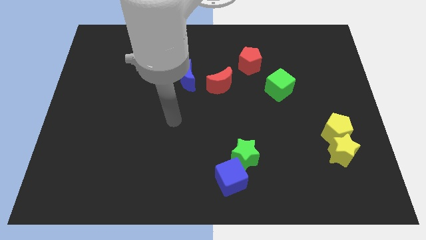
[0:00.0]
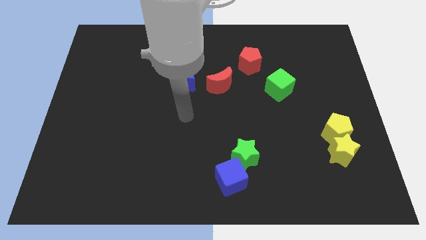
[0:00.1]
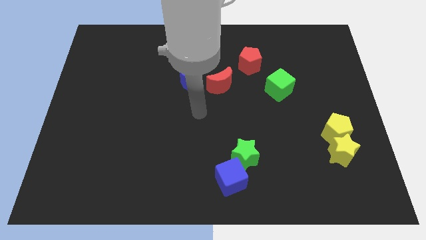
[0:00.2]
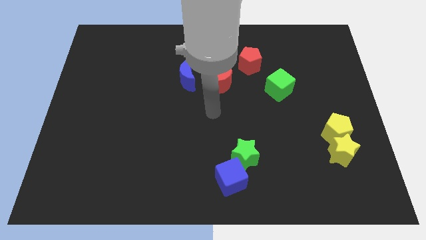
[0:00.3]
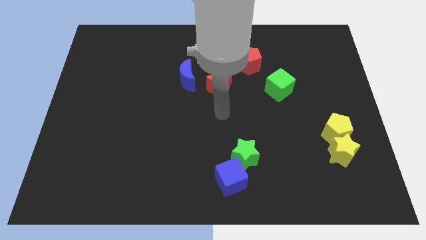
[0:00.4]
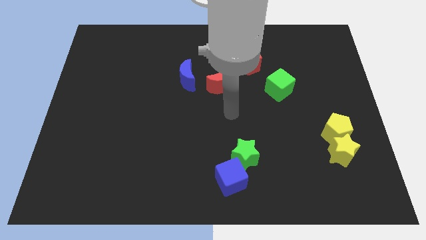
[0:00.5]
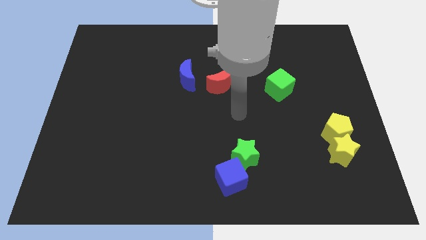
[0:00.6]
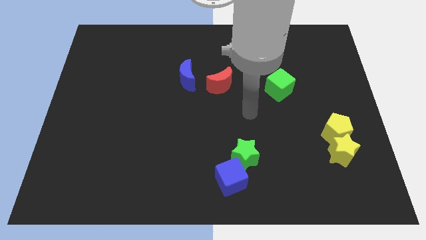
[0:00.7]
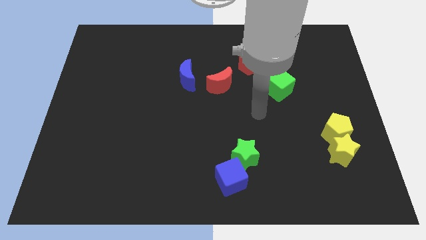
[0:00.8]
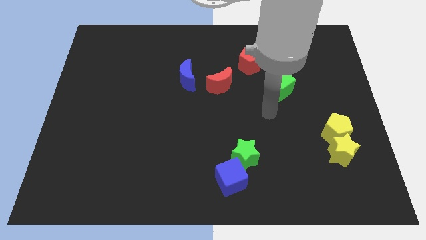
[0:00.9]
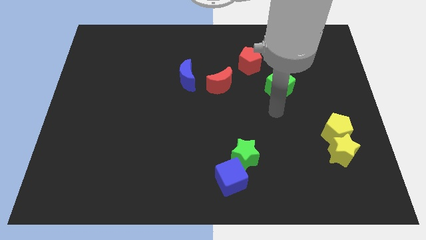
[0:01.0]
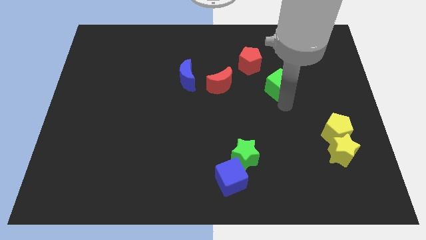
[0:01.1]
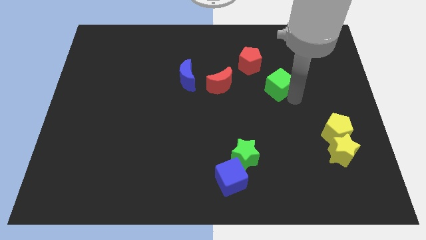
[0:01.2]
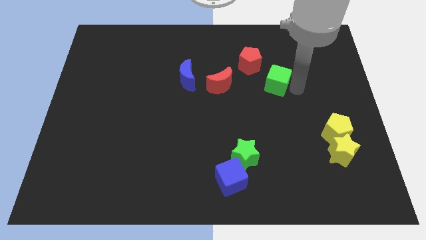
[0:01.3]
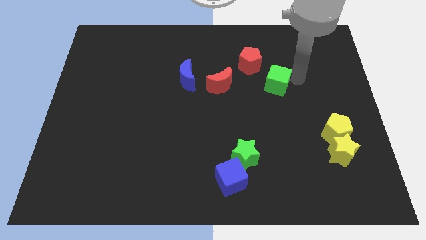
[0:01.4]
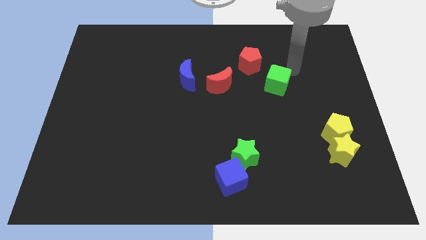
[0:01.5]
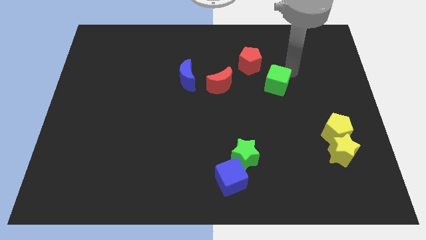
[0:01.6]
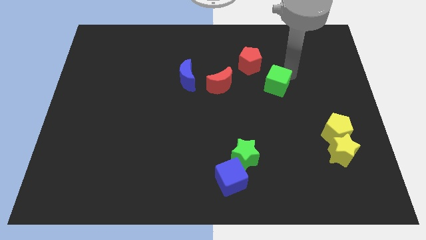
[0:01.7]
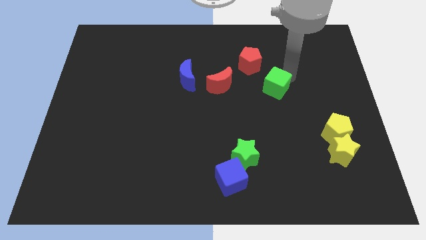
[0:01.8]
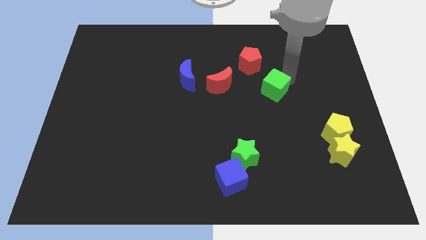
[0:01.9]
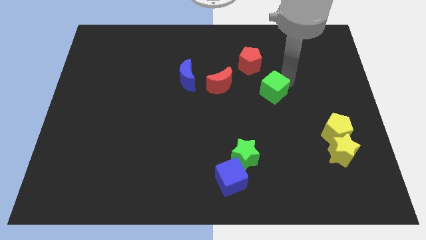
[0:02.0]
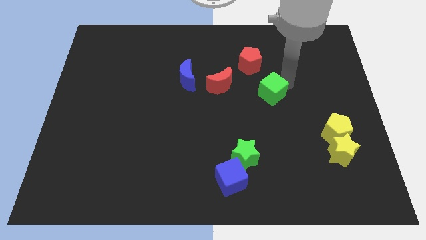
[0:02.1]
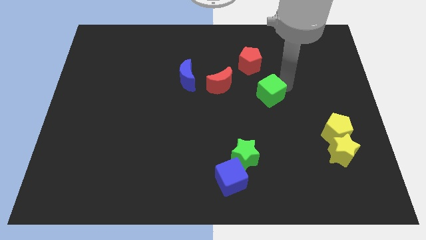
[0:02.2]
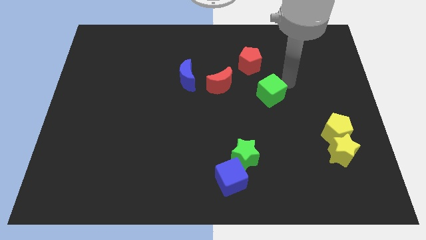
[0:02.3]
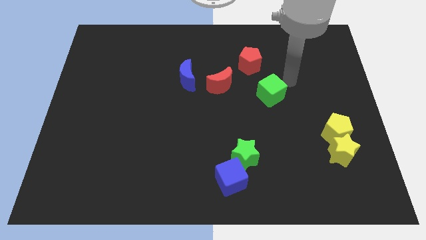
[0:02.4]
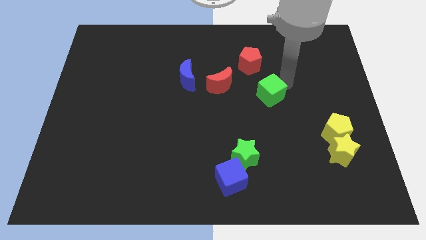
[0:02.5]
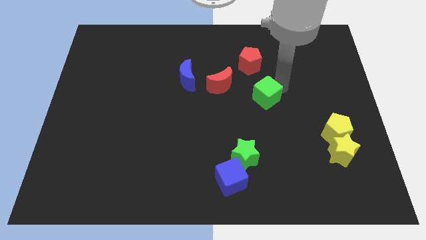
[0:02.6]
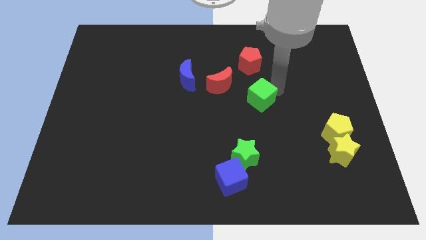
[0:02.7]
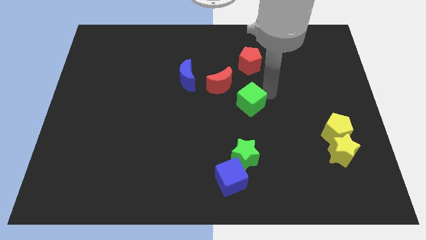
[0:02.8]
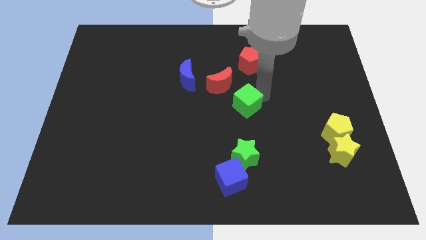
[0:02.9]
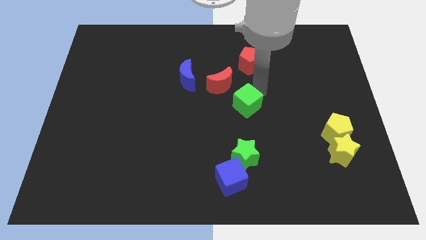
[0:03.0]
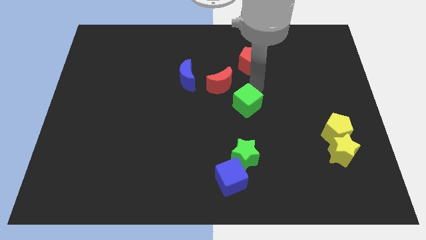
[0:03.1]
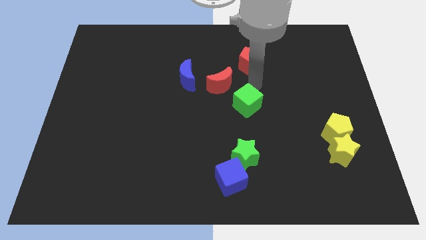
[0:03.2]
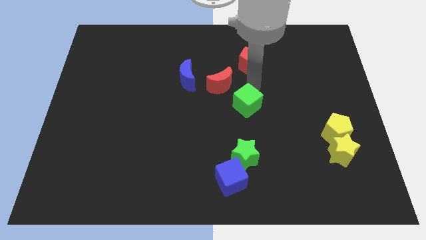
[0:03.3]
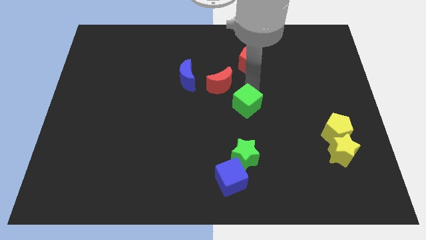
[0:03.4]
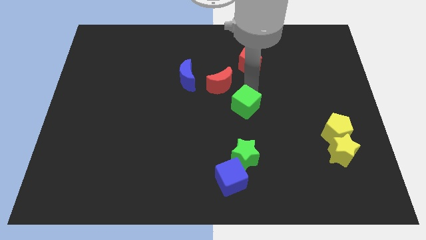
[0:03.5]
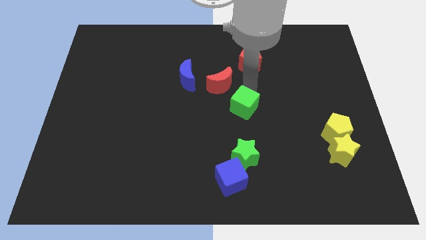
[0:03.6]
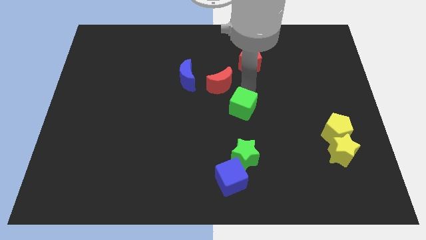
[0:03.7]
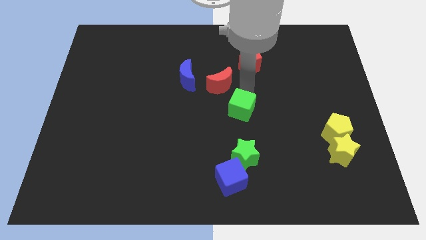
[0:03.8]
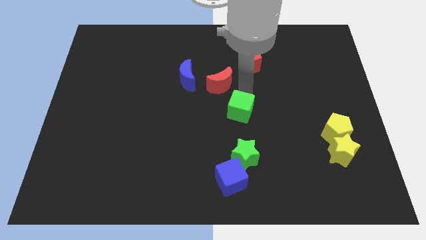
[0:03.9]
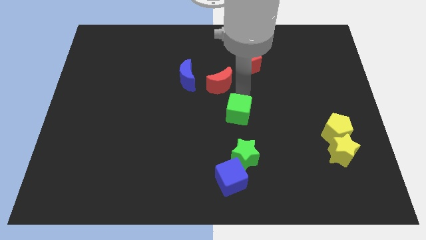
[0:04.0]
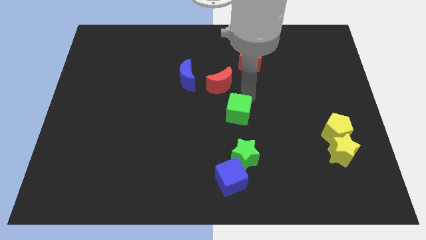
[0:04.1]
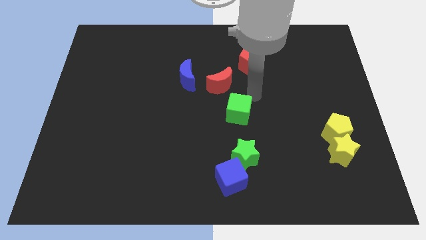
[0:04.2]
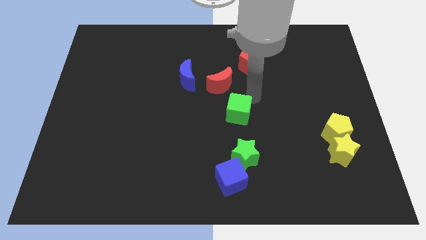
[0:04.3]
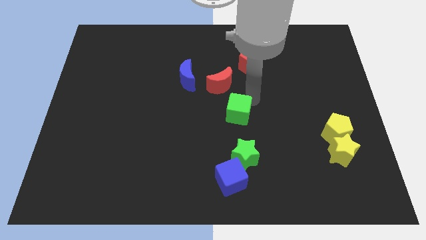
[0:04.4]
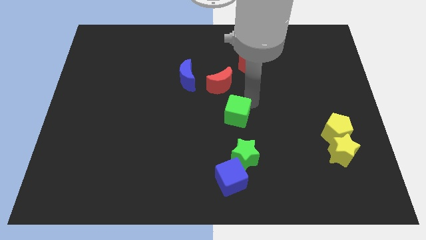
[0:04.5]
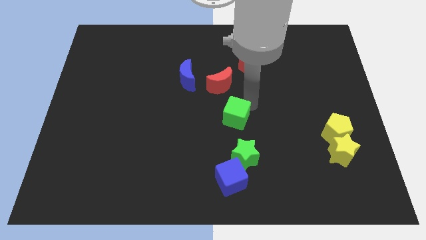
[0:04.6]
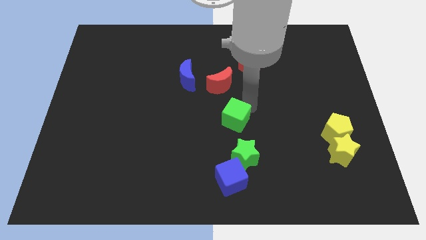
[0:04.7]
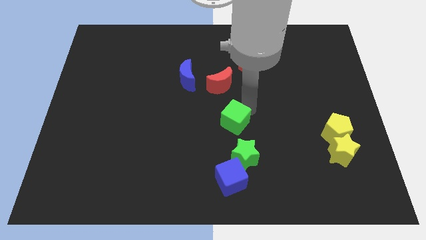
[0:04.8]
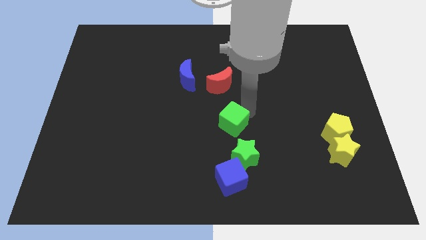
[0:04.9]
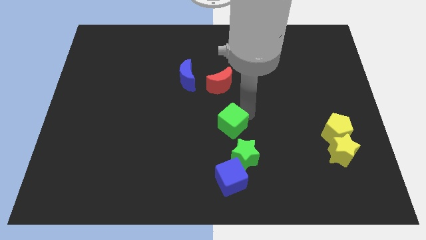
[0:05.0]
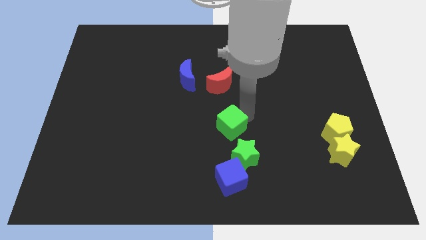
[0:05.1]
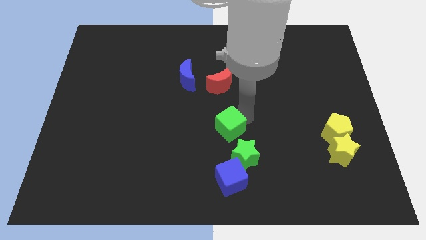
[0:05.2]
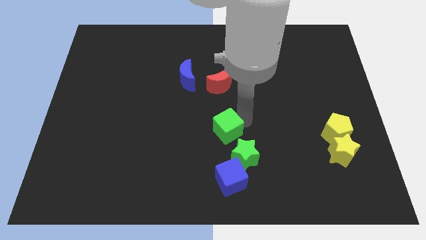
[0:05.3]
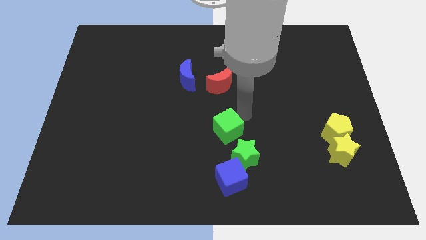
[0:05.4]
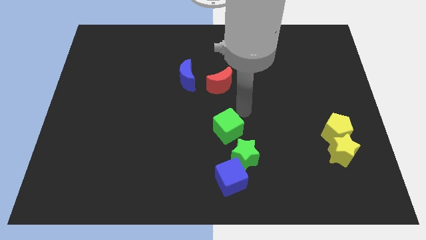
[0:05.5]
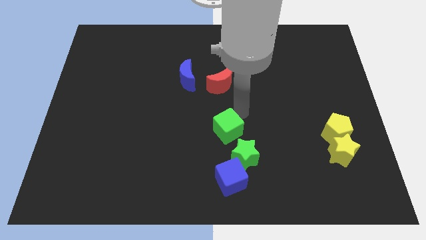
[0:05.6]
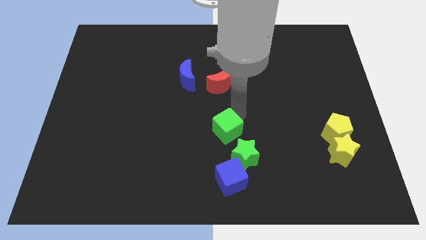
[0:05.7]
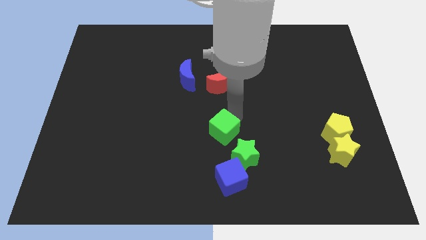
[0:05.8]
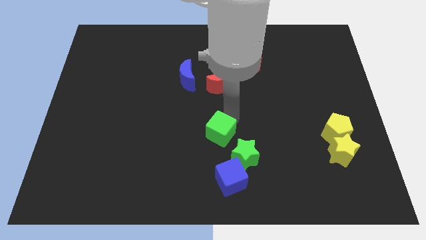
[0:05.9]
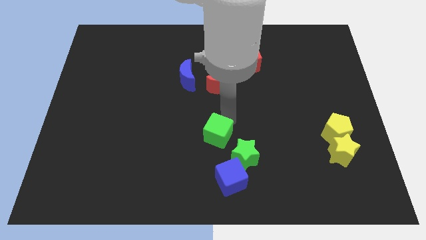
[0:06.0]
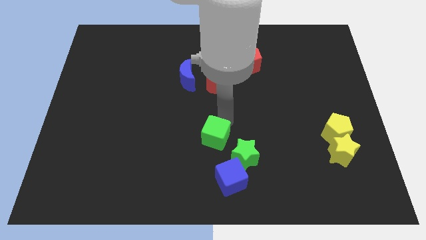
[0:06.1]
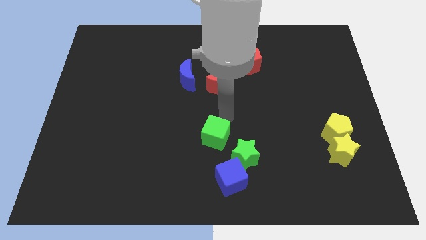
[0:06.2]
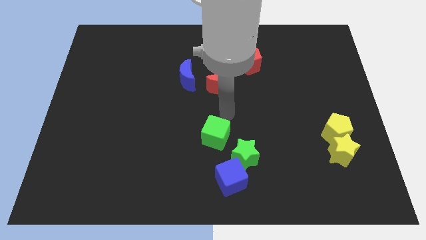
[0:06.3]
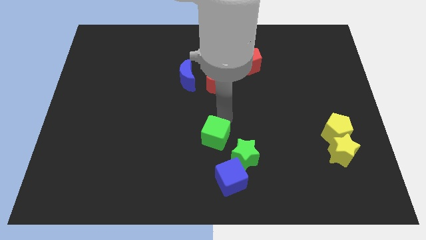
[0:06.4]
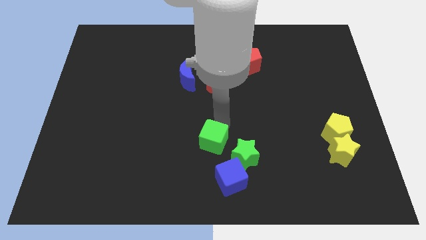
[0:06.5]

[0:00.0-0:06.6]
move the green cube to the top left of the blue cube

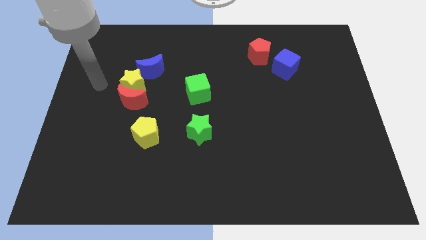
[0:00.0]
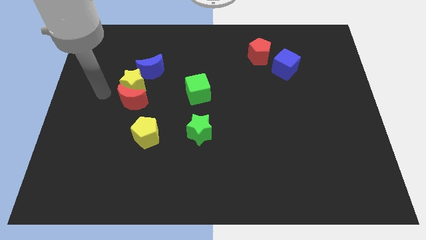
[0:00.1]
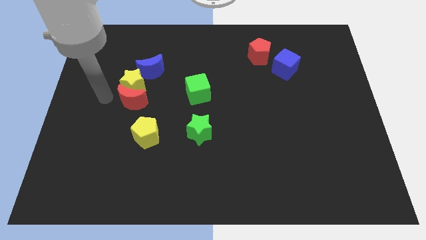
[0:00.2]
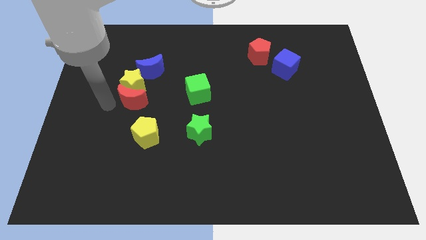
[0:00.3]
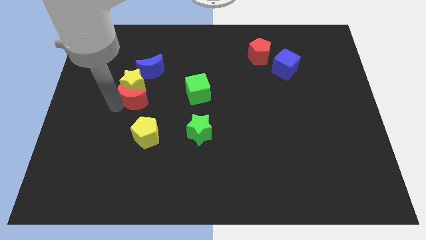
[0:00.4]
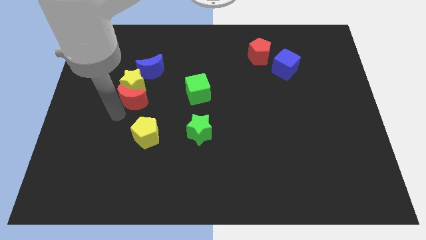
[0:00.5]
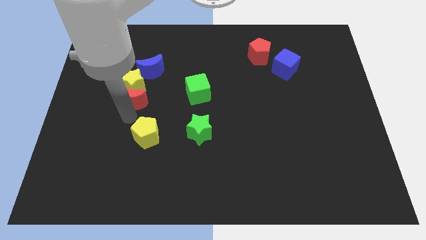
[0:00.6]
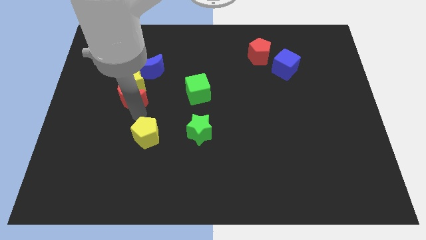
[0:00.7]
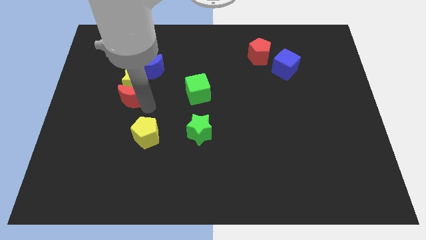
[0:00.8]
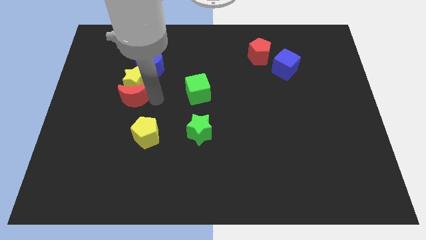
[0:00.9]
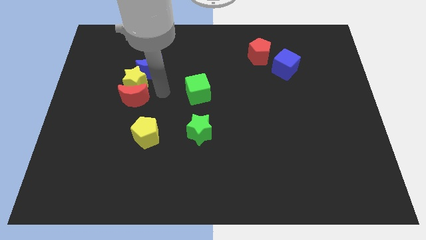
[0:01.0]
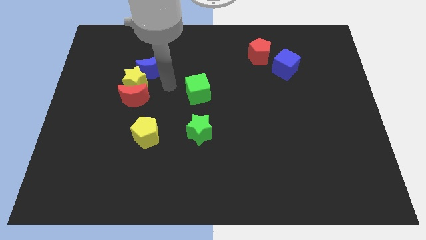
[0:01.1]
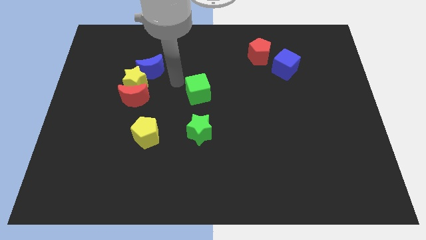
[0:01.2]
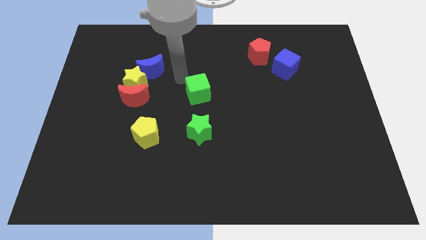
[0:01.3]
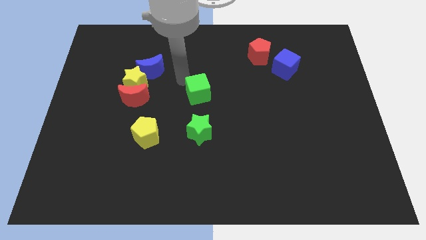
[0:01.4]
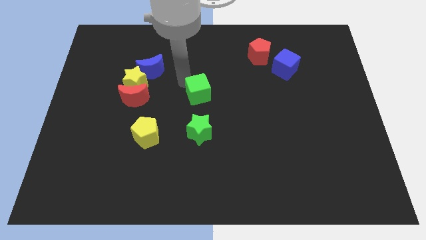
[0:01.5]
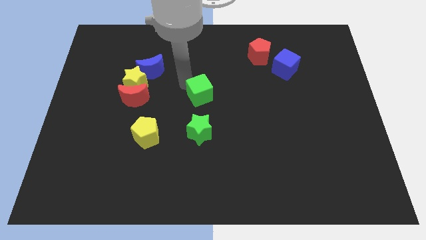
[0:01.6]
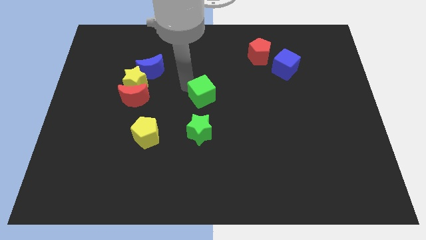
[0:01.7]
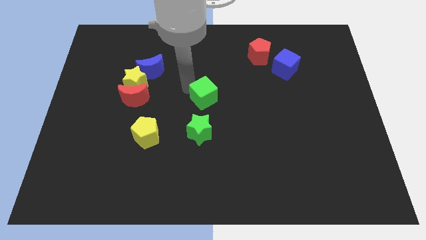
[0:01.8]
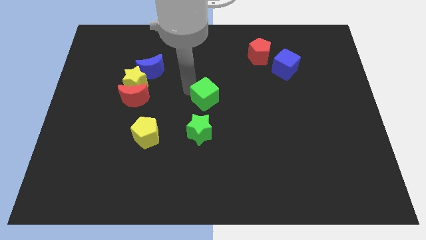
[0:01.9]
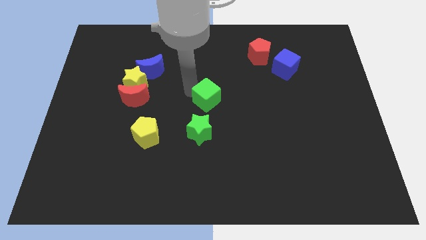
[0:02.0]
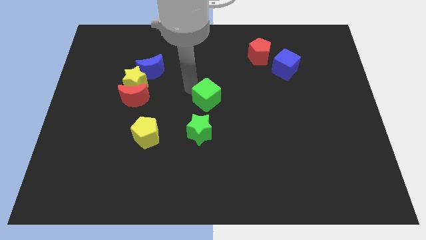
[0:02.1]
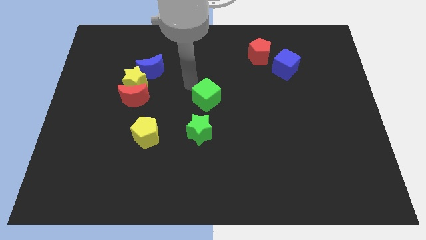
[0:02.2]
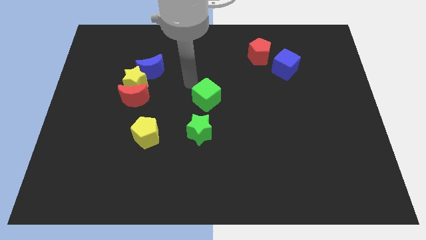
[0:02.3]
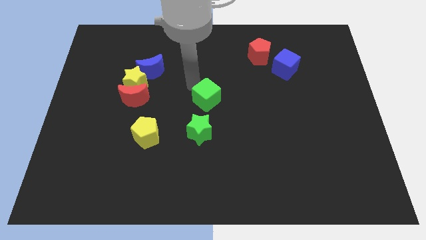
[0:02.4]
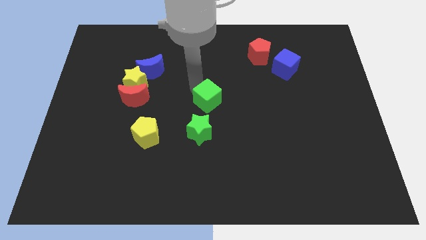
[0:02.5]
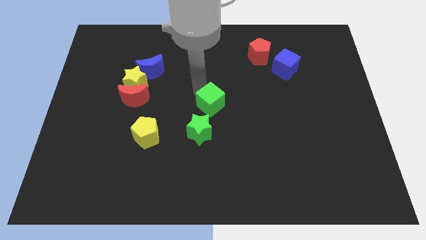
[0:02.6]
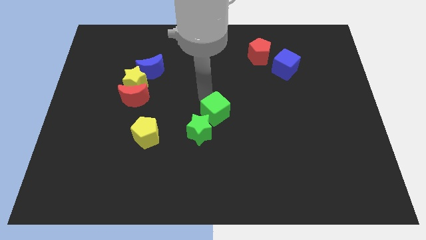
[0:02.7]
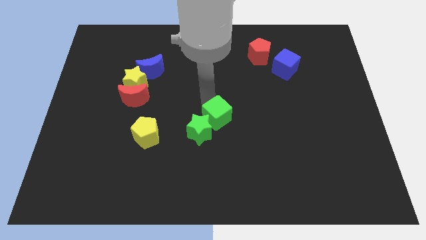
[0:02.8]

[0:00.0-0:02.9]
move the green cube to the right of the green star
